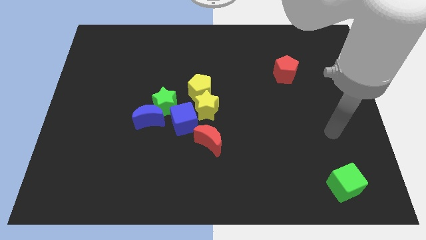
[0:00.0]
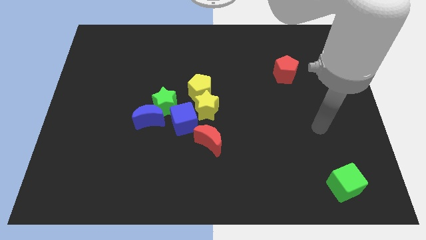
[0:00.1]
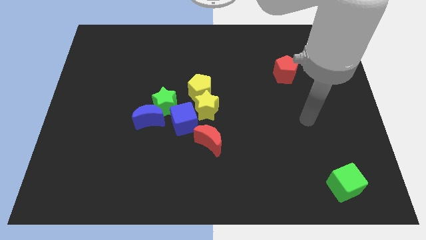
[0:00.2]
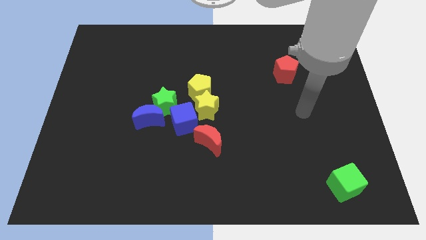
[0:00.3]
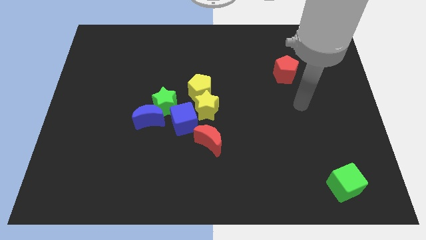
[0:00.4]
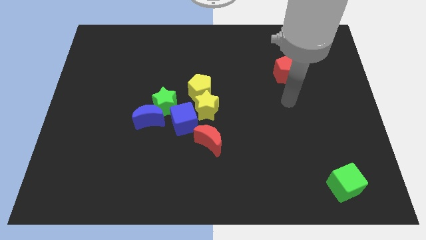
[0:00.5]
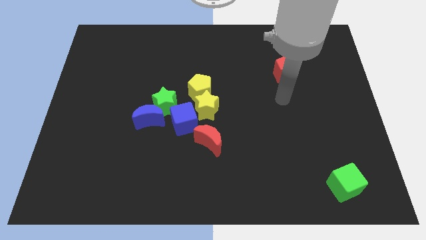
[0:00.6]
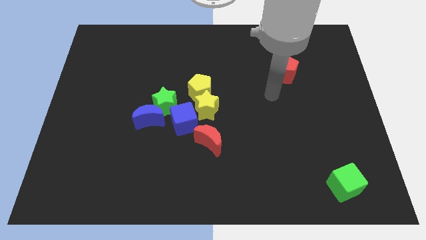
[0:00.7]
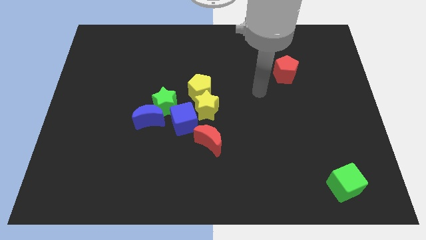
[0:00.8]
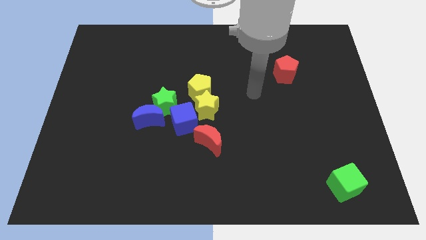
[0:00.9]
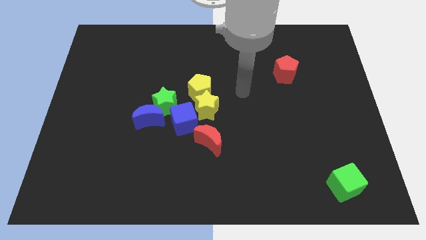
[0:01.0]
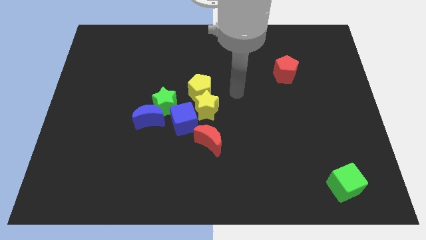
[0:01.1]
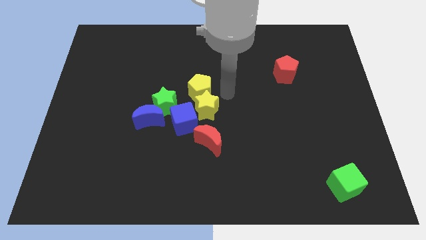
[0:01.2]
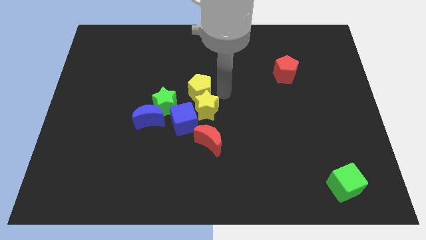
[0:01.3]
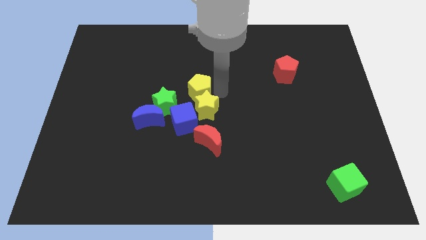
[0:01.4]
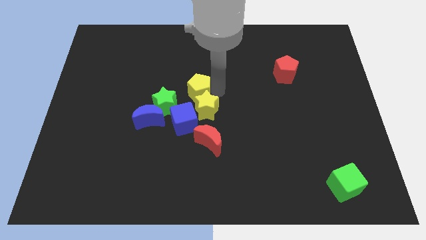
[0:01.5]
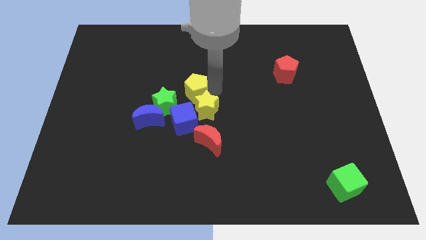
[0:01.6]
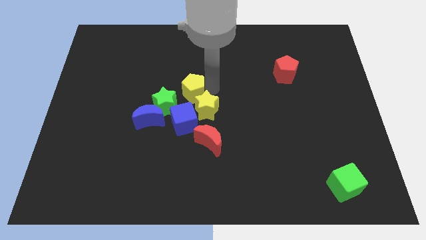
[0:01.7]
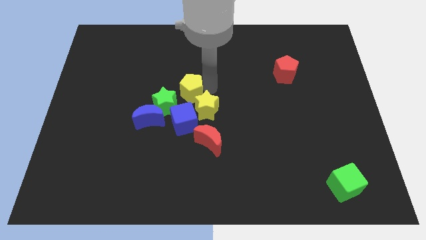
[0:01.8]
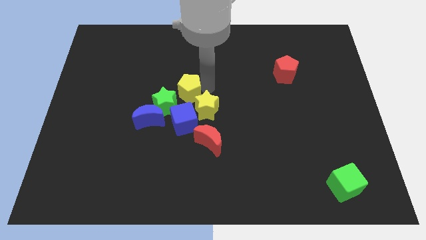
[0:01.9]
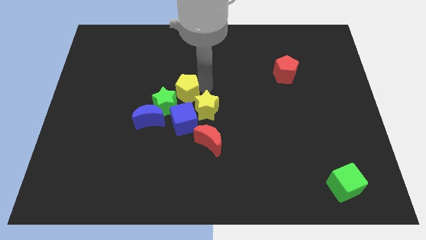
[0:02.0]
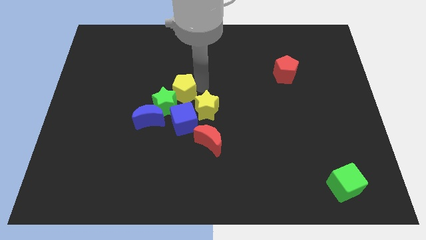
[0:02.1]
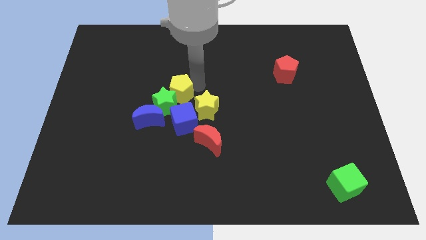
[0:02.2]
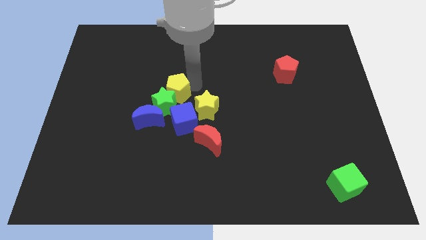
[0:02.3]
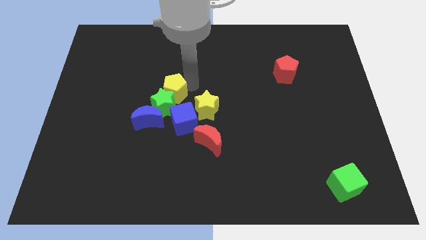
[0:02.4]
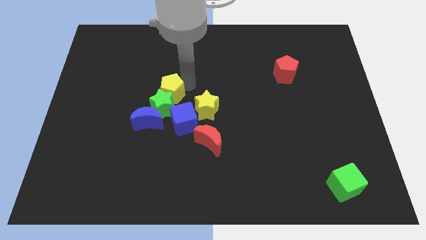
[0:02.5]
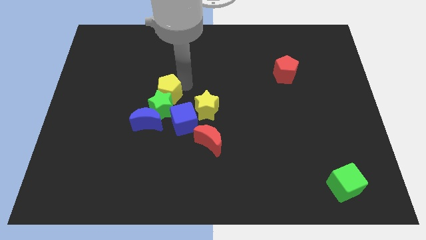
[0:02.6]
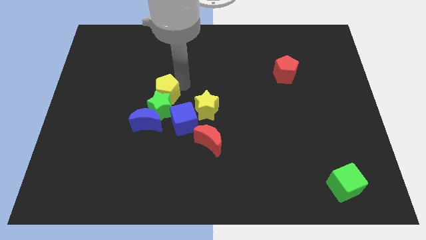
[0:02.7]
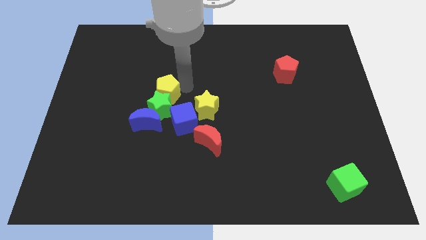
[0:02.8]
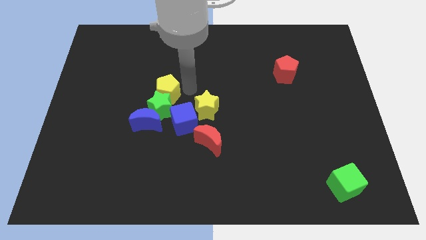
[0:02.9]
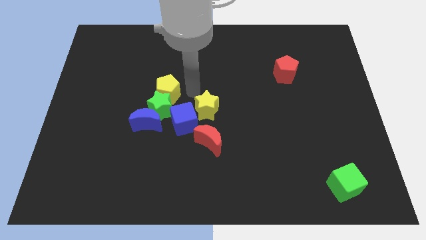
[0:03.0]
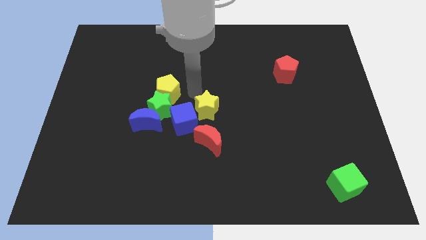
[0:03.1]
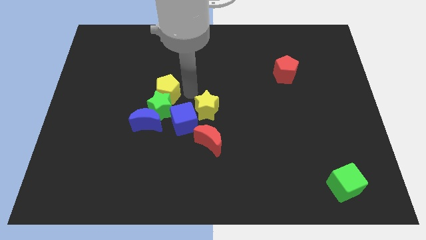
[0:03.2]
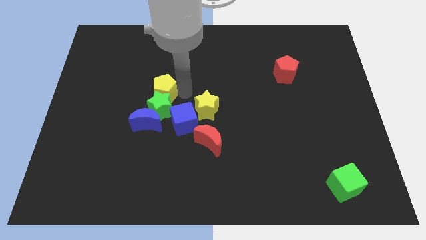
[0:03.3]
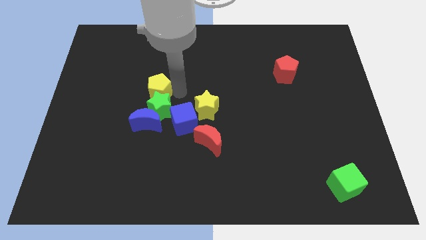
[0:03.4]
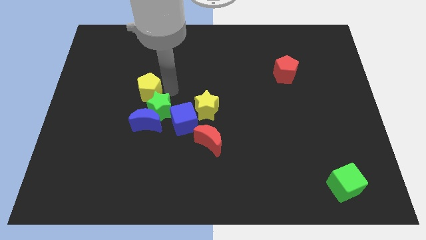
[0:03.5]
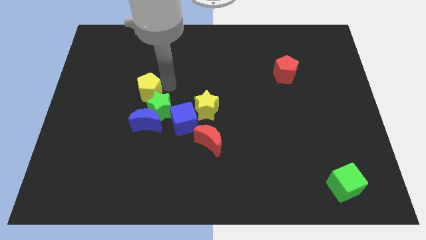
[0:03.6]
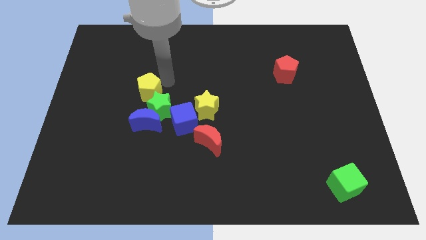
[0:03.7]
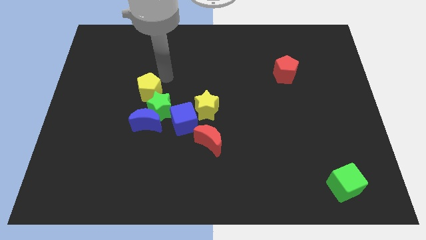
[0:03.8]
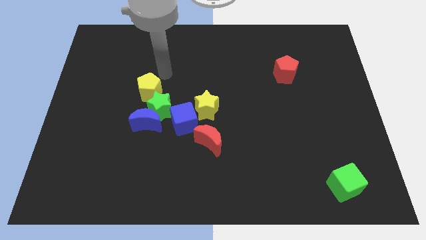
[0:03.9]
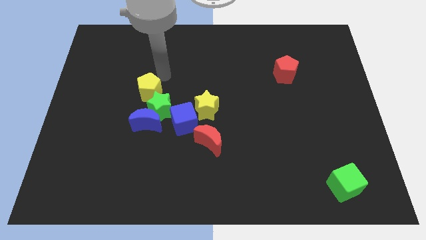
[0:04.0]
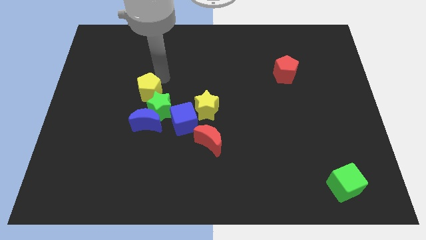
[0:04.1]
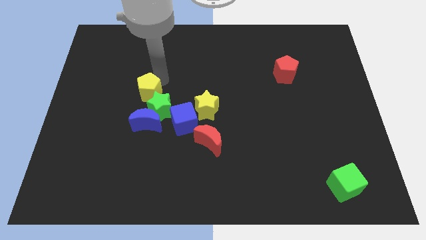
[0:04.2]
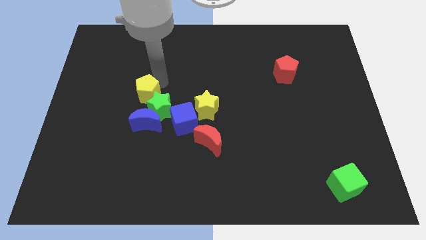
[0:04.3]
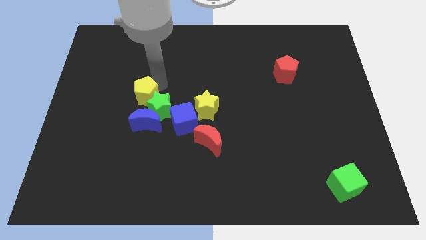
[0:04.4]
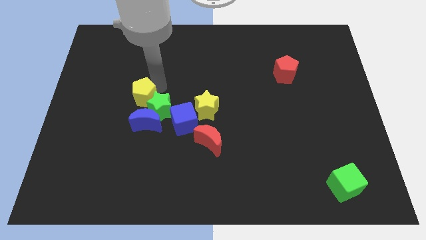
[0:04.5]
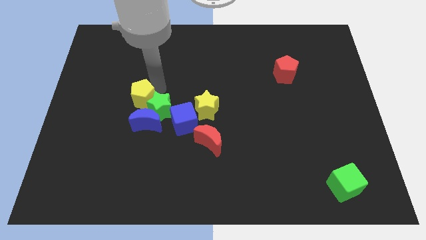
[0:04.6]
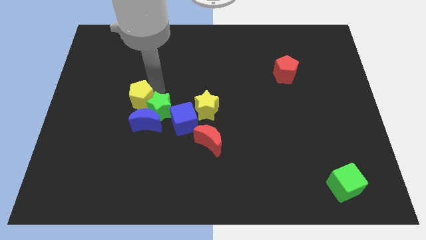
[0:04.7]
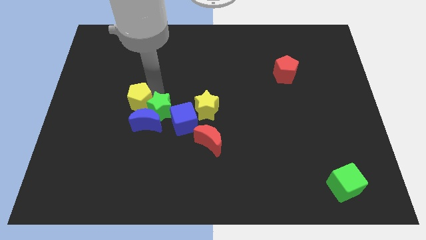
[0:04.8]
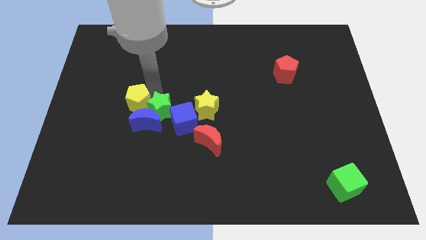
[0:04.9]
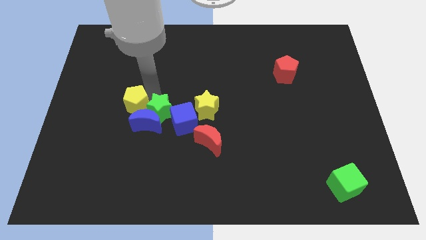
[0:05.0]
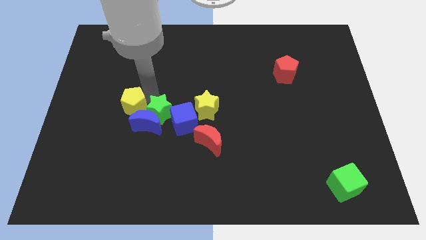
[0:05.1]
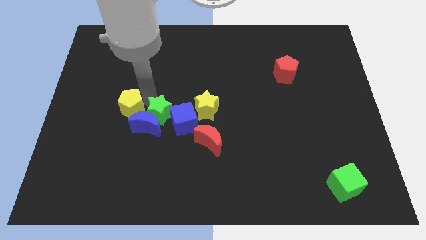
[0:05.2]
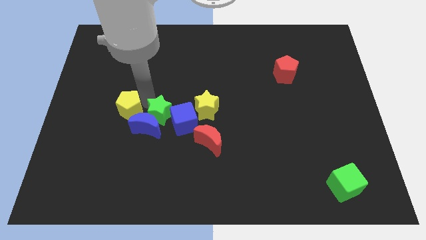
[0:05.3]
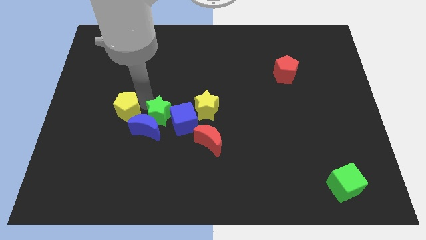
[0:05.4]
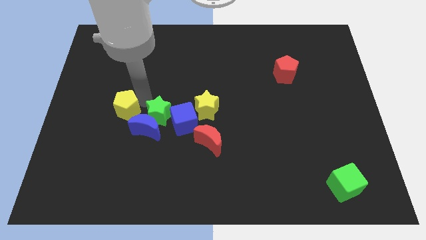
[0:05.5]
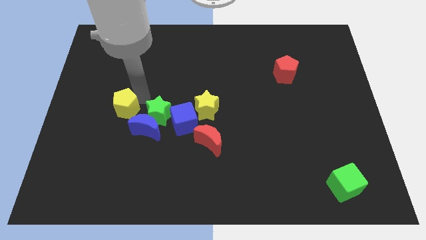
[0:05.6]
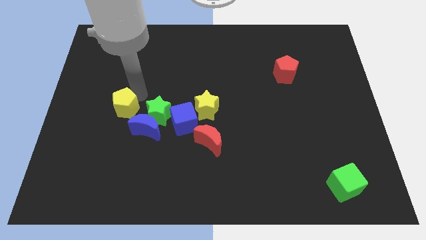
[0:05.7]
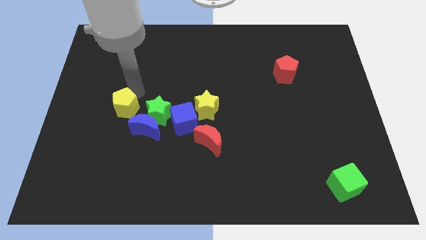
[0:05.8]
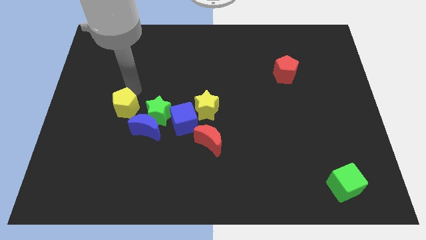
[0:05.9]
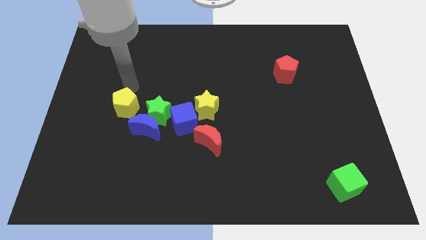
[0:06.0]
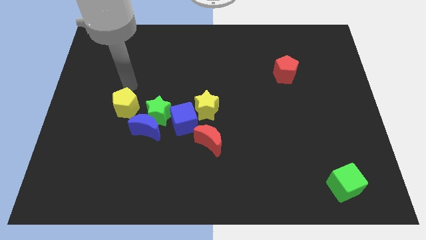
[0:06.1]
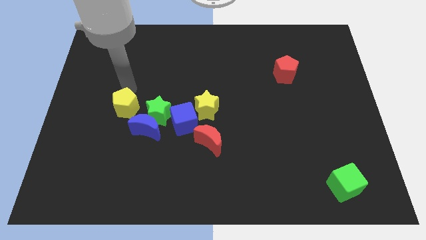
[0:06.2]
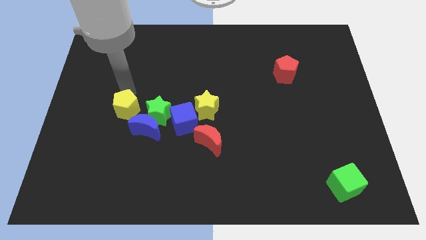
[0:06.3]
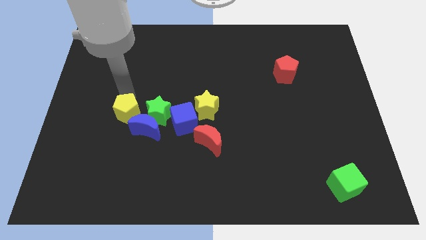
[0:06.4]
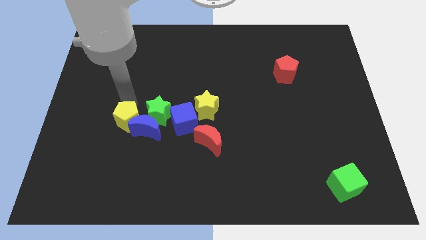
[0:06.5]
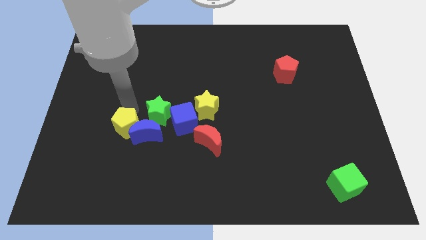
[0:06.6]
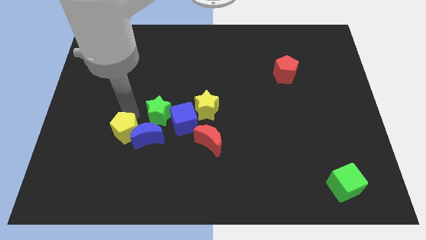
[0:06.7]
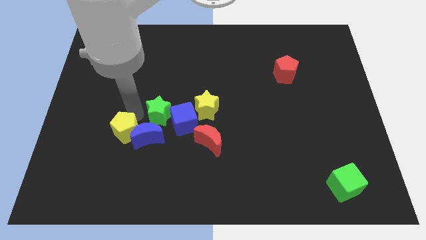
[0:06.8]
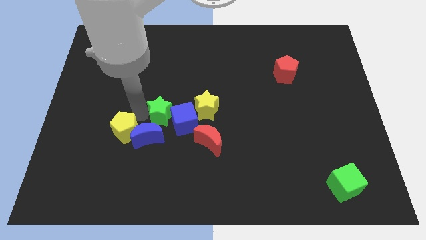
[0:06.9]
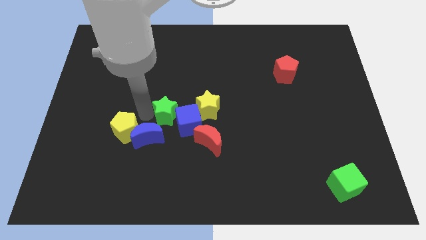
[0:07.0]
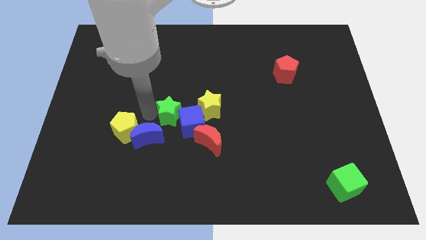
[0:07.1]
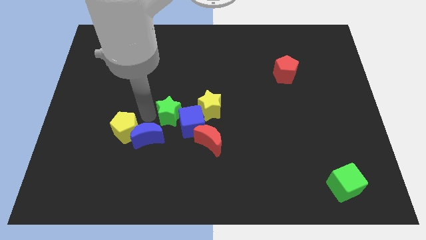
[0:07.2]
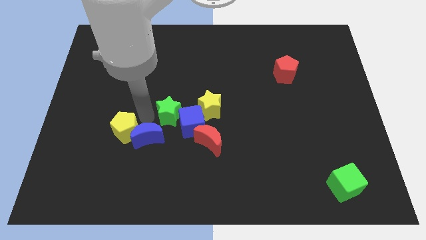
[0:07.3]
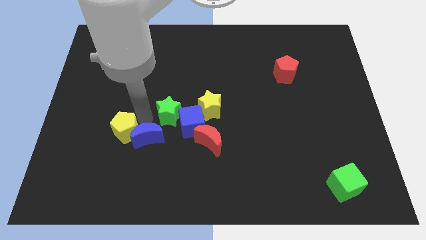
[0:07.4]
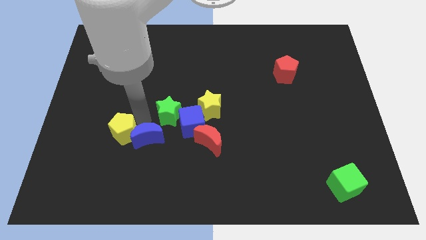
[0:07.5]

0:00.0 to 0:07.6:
slide the yellow pentagon down and to the left

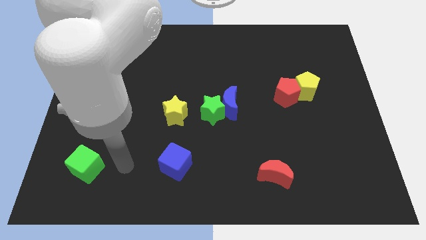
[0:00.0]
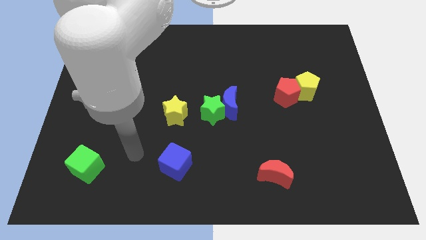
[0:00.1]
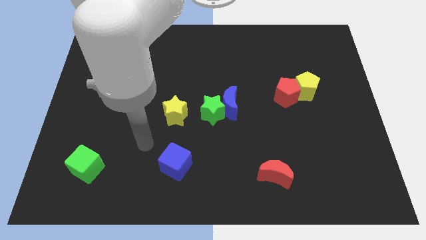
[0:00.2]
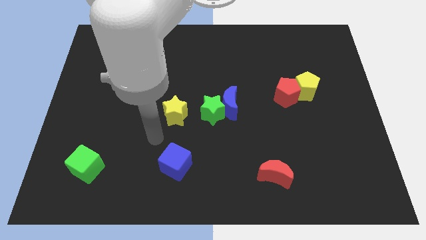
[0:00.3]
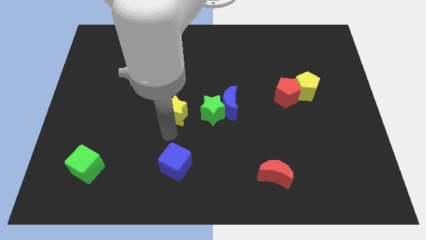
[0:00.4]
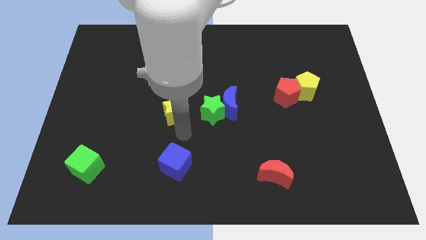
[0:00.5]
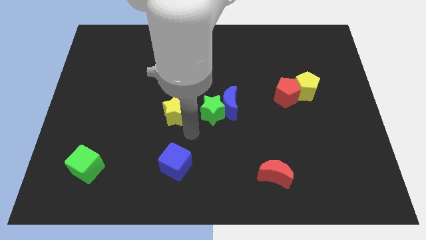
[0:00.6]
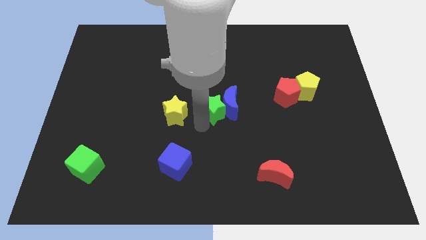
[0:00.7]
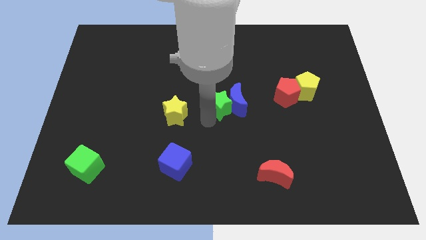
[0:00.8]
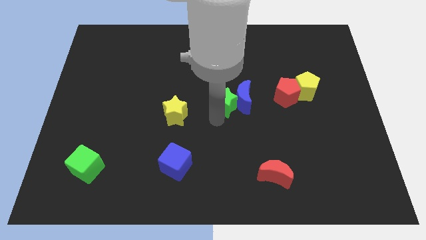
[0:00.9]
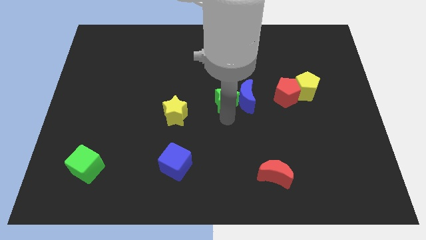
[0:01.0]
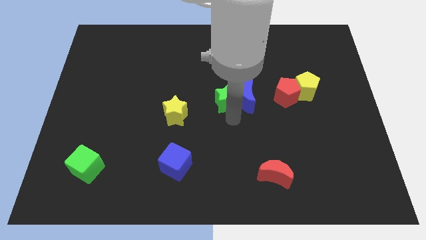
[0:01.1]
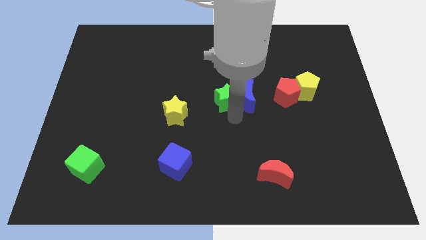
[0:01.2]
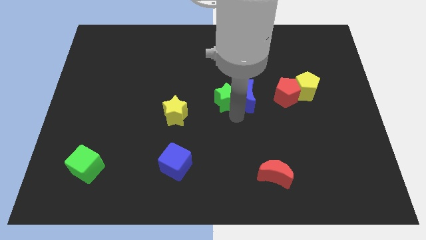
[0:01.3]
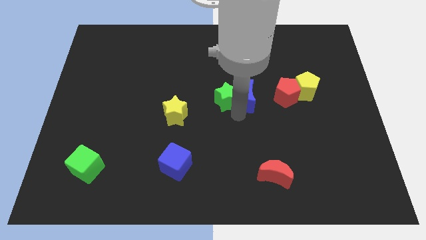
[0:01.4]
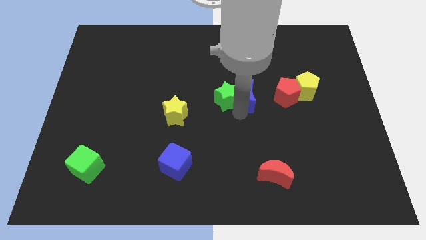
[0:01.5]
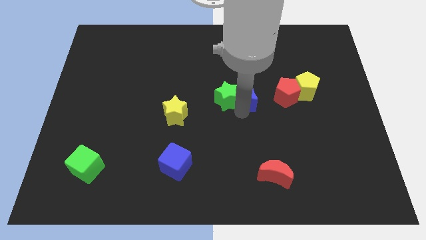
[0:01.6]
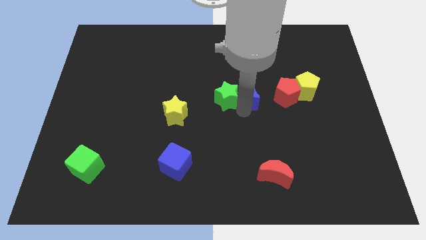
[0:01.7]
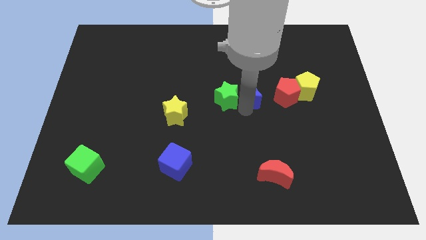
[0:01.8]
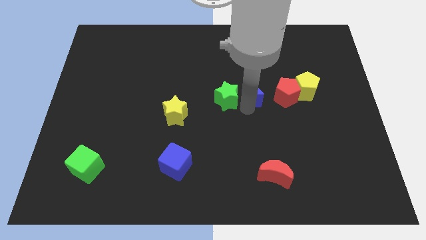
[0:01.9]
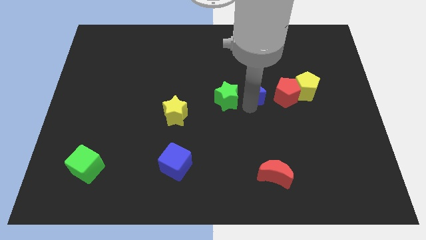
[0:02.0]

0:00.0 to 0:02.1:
move the blue moon upwards and right diagonally a little
